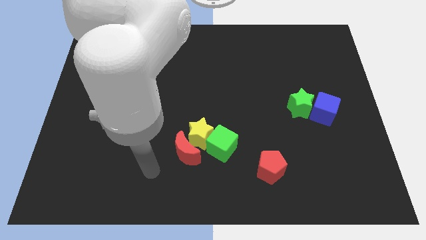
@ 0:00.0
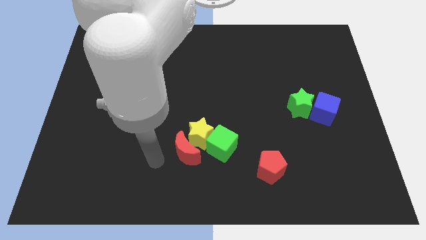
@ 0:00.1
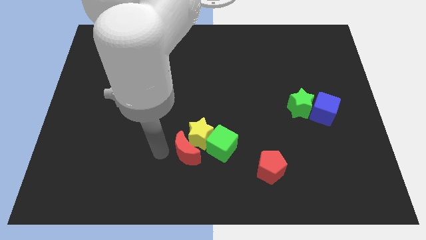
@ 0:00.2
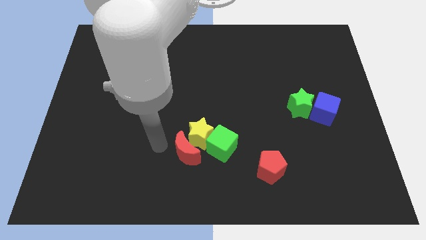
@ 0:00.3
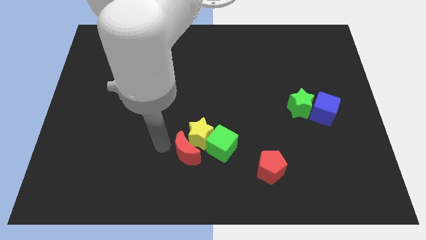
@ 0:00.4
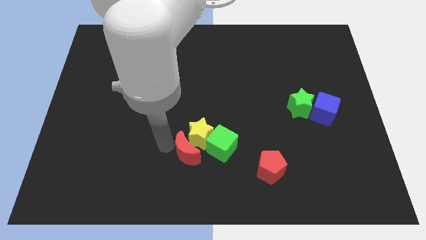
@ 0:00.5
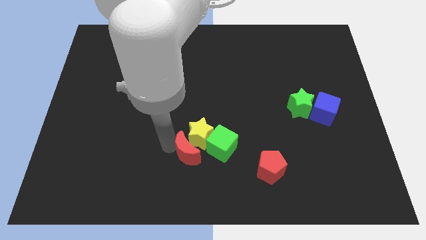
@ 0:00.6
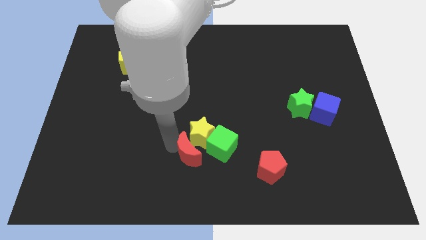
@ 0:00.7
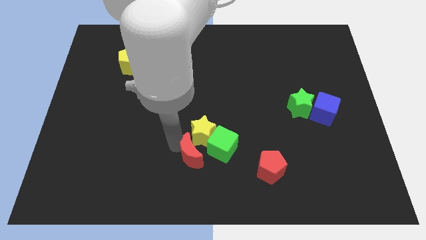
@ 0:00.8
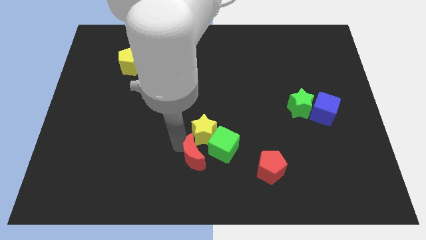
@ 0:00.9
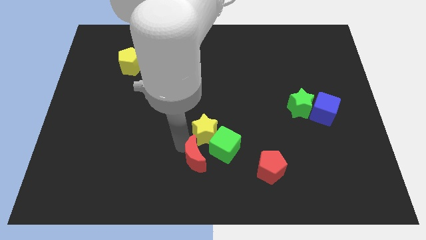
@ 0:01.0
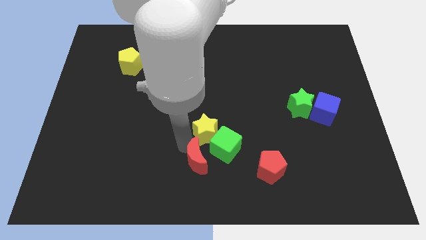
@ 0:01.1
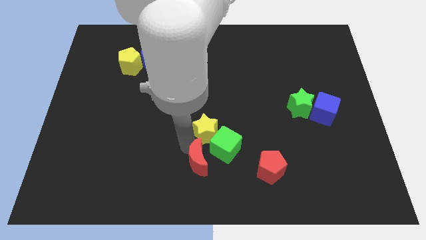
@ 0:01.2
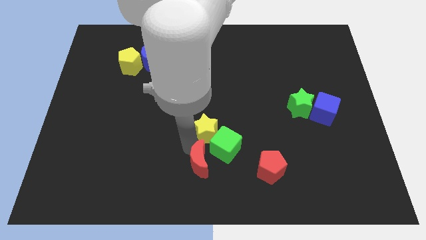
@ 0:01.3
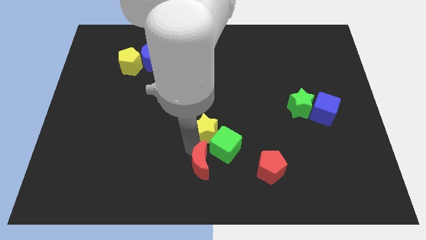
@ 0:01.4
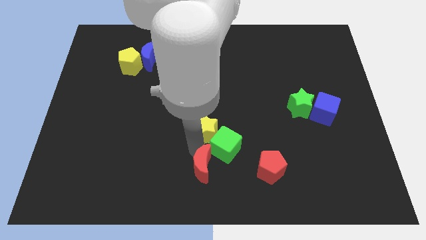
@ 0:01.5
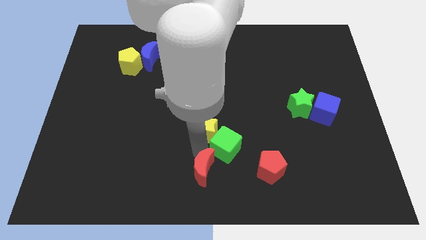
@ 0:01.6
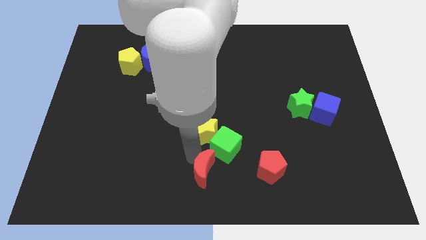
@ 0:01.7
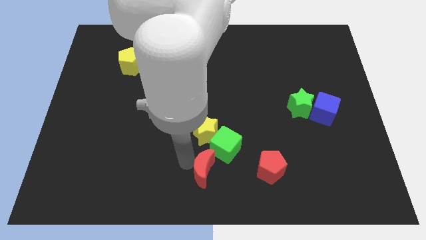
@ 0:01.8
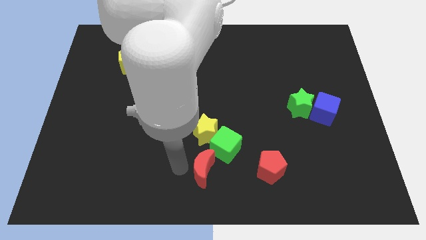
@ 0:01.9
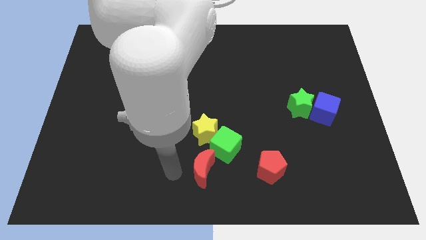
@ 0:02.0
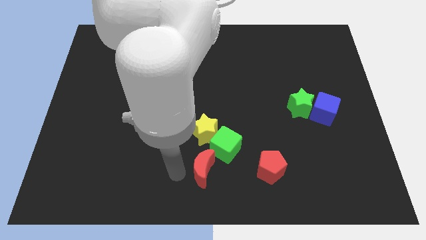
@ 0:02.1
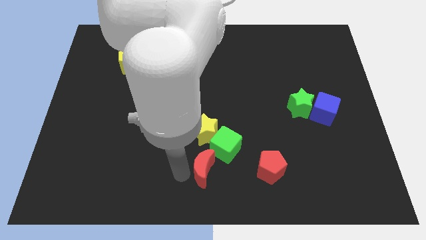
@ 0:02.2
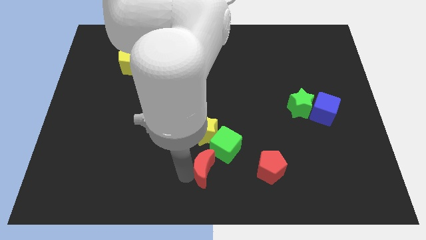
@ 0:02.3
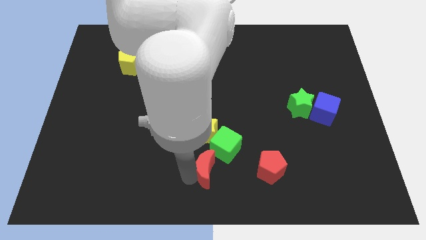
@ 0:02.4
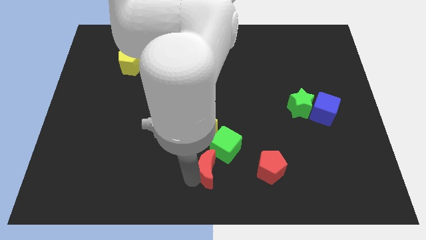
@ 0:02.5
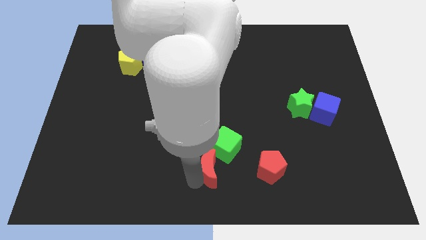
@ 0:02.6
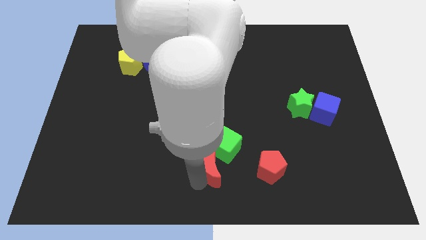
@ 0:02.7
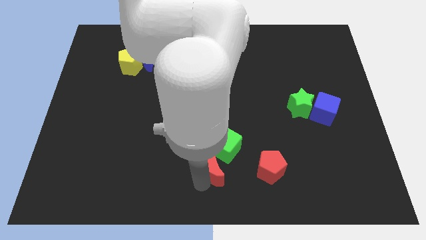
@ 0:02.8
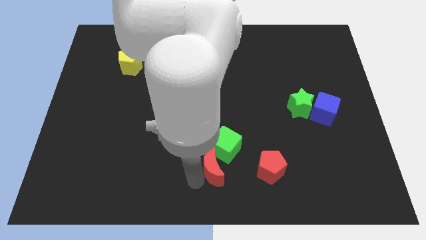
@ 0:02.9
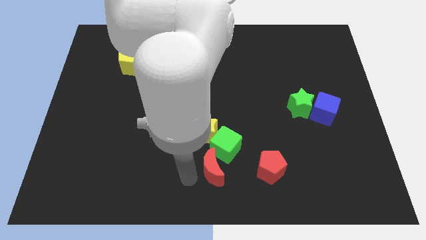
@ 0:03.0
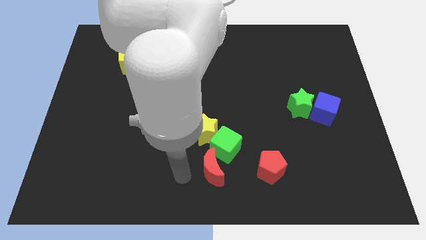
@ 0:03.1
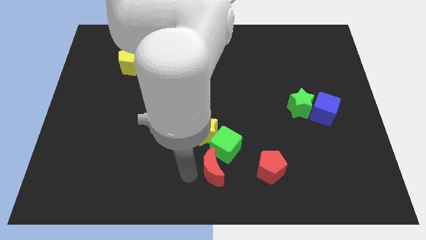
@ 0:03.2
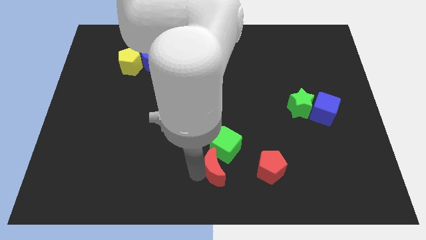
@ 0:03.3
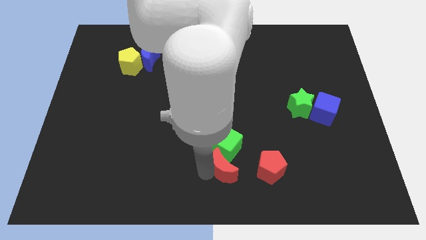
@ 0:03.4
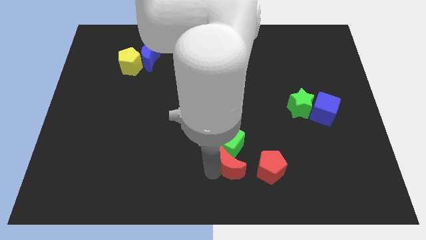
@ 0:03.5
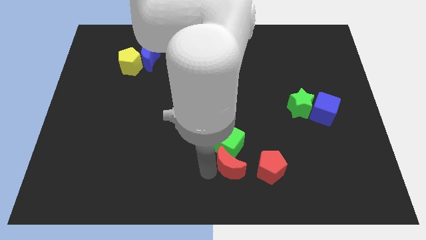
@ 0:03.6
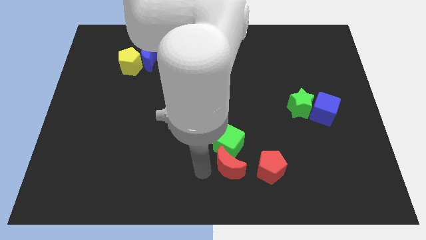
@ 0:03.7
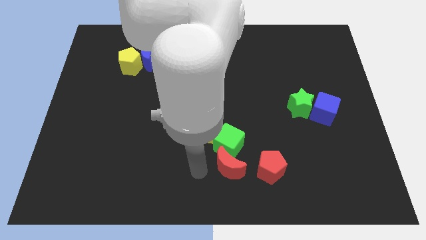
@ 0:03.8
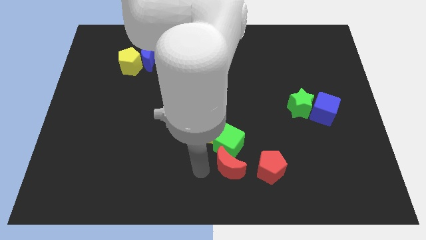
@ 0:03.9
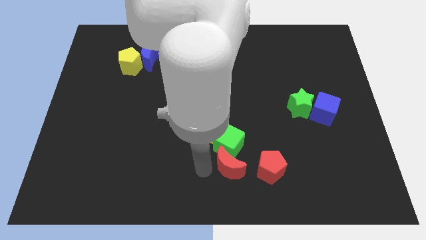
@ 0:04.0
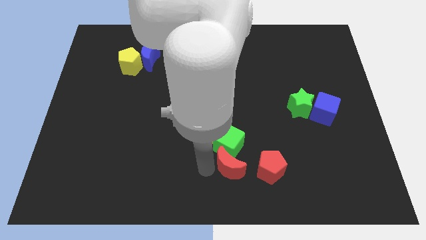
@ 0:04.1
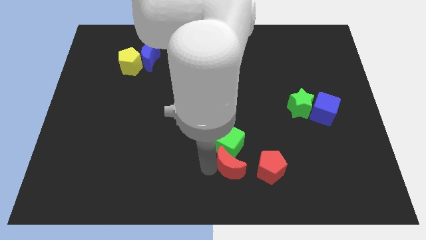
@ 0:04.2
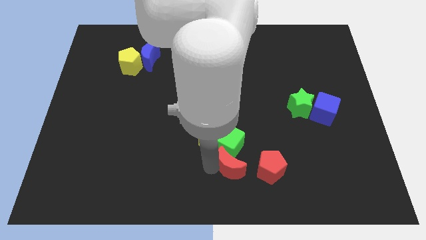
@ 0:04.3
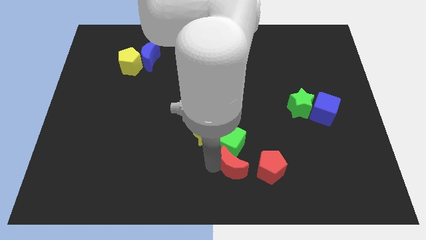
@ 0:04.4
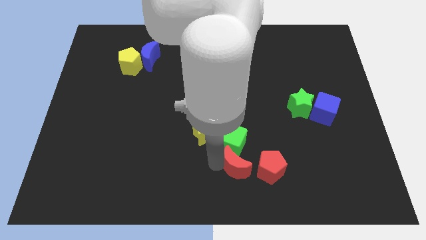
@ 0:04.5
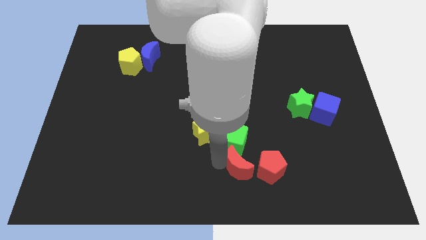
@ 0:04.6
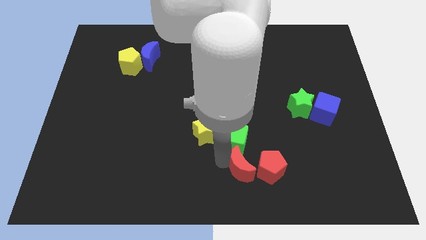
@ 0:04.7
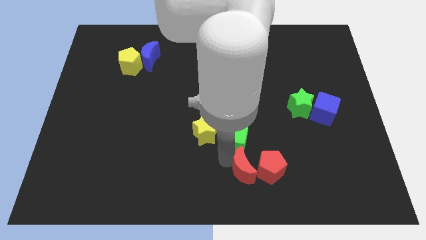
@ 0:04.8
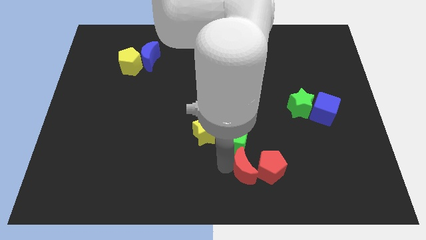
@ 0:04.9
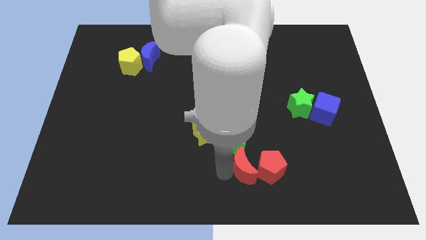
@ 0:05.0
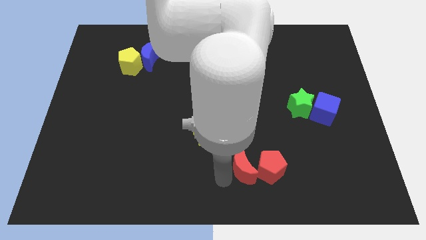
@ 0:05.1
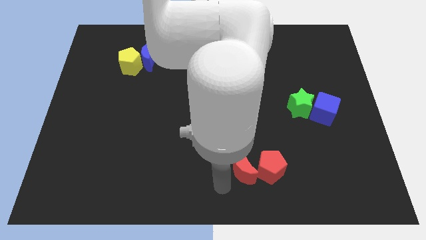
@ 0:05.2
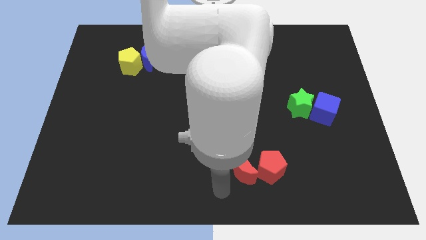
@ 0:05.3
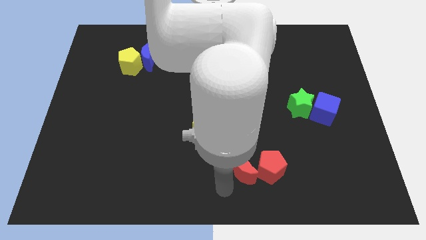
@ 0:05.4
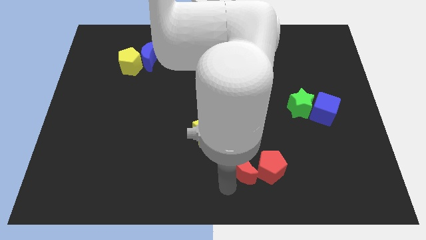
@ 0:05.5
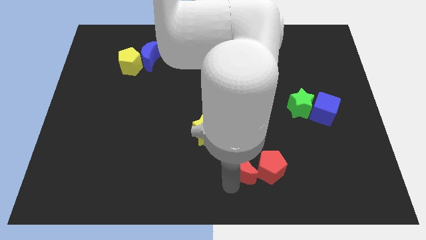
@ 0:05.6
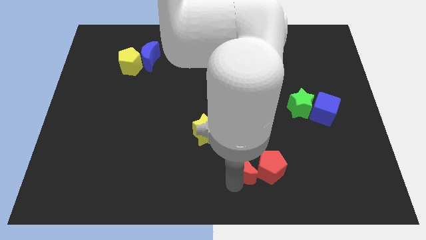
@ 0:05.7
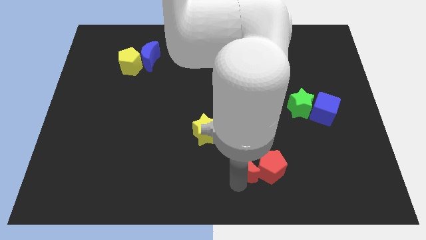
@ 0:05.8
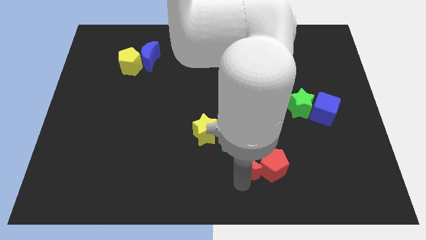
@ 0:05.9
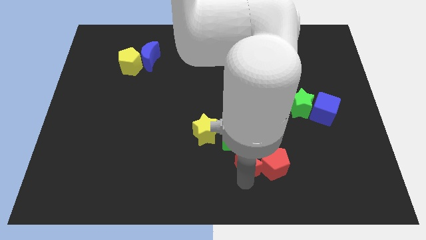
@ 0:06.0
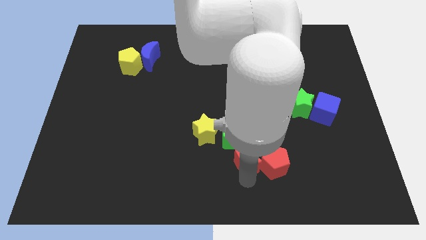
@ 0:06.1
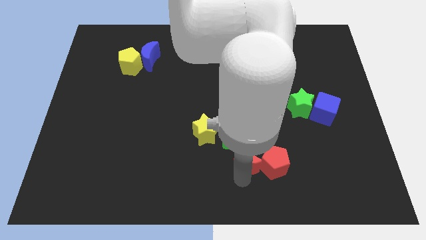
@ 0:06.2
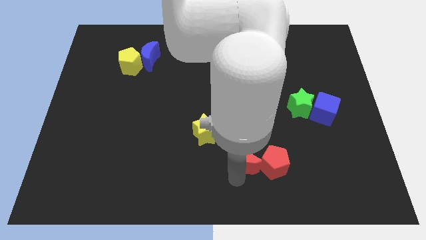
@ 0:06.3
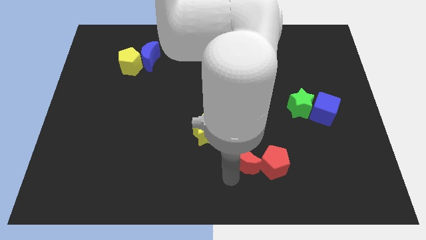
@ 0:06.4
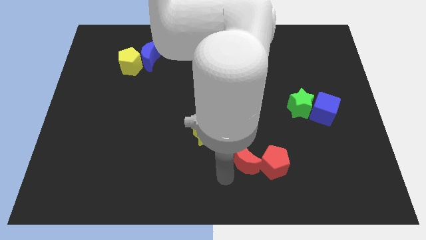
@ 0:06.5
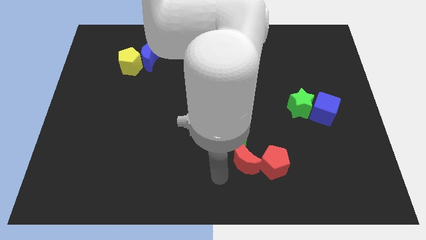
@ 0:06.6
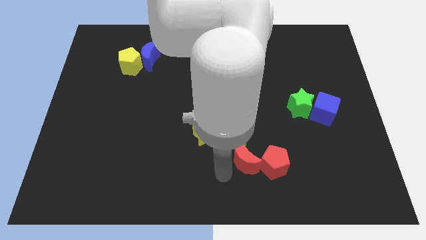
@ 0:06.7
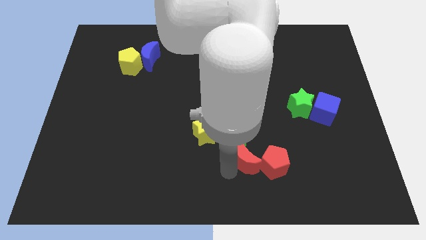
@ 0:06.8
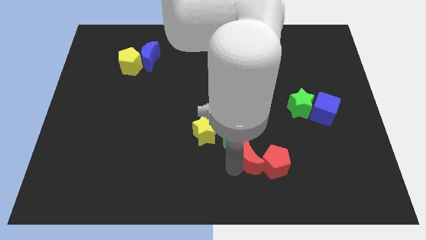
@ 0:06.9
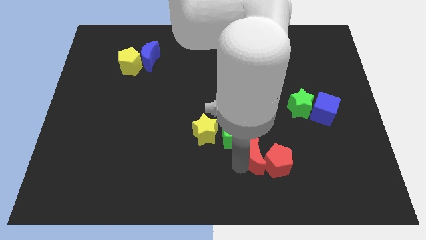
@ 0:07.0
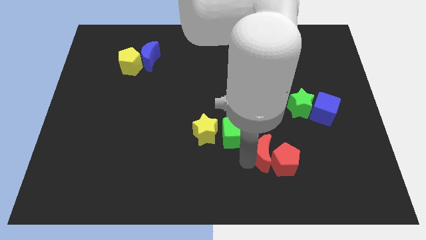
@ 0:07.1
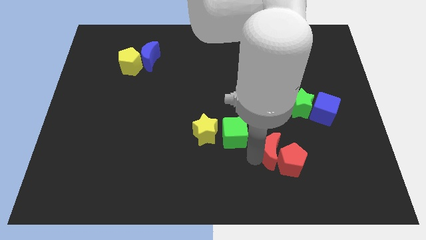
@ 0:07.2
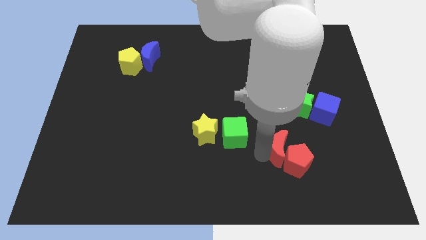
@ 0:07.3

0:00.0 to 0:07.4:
move the red moon to the right

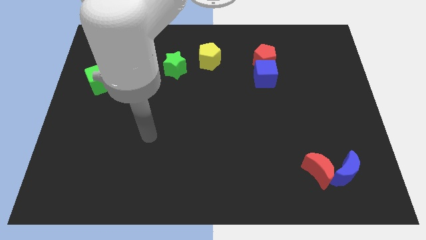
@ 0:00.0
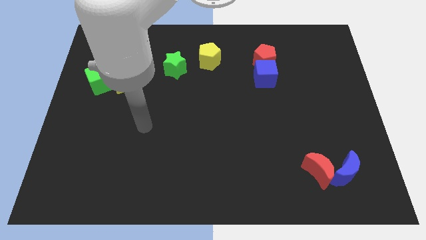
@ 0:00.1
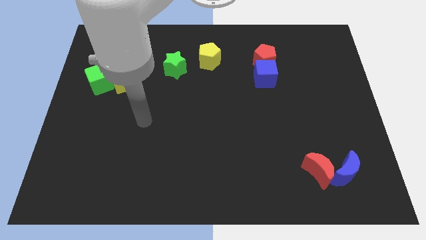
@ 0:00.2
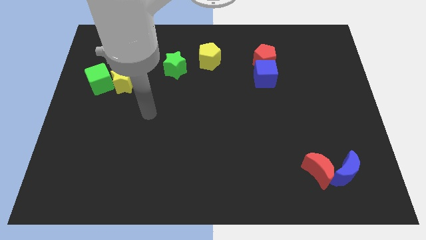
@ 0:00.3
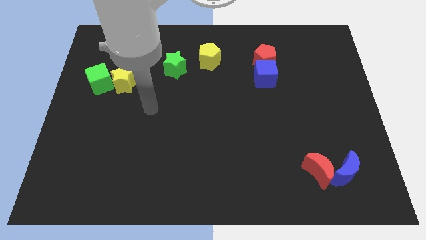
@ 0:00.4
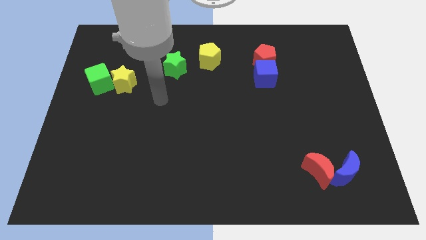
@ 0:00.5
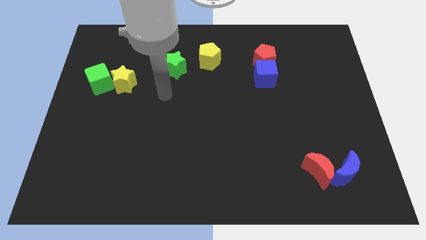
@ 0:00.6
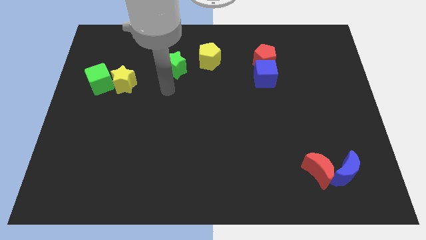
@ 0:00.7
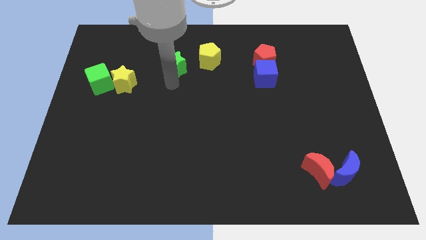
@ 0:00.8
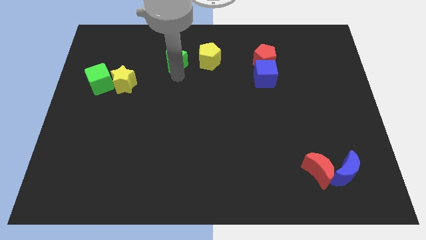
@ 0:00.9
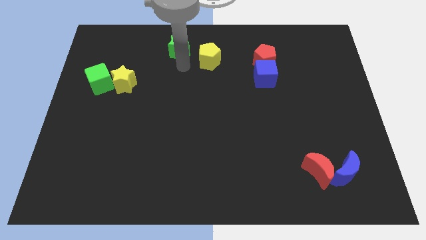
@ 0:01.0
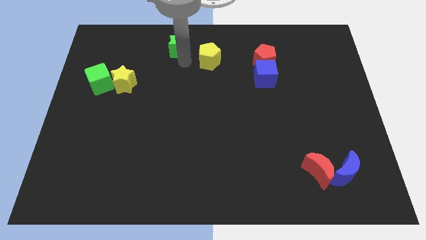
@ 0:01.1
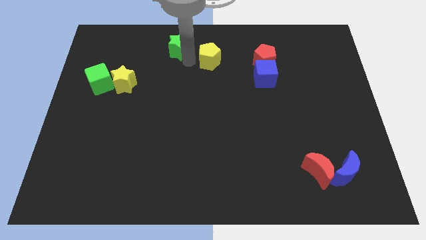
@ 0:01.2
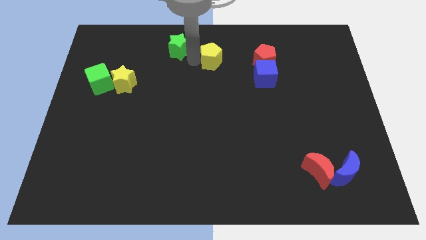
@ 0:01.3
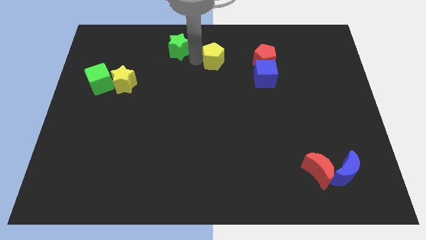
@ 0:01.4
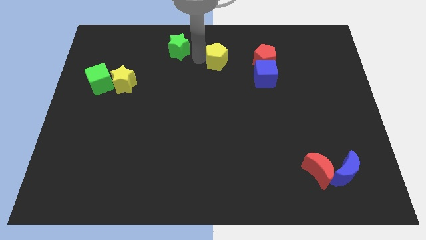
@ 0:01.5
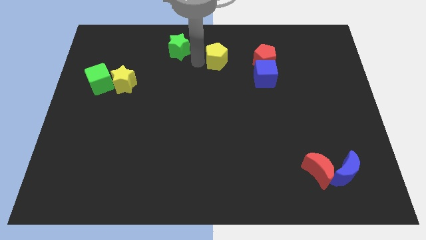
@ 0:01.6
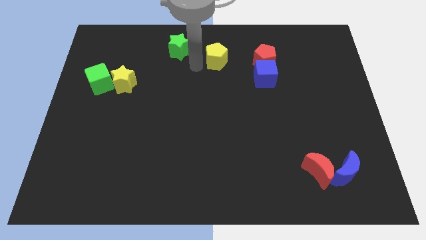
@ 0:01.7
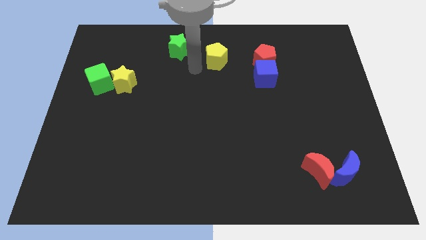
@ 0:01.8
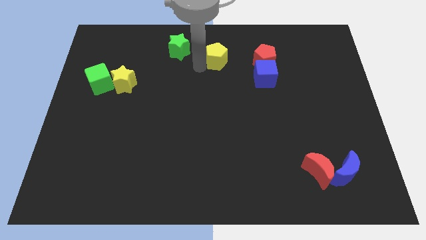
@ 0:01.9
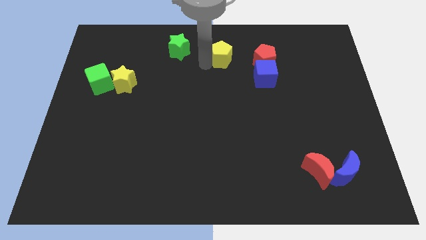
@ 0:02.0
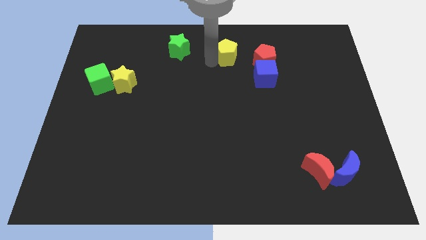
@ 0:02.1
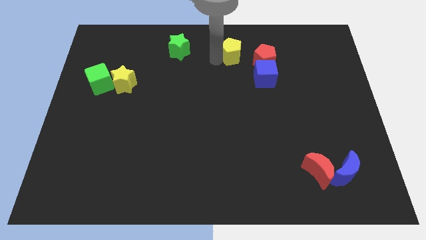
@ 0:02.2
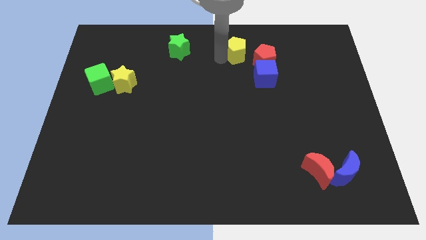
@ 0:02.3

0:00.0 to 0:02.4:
slightly move the yellow pentagon to the right
